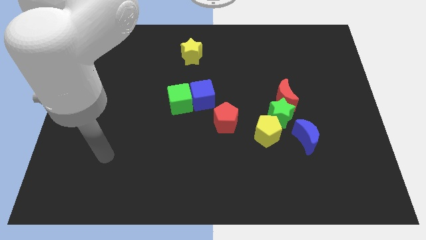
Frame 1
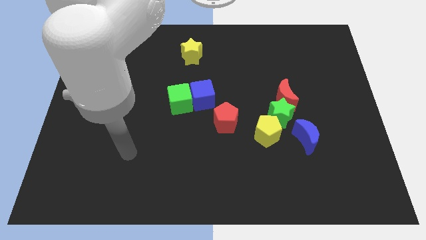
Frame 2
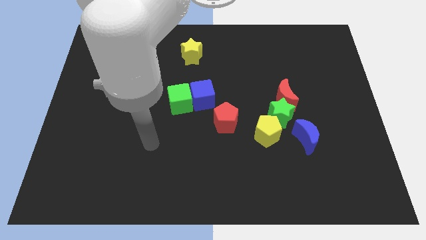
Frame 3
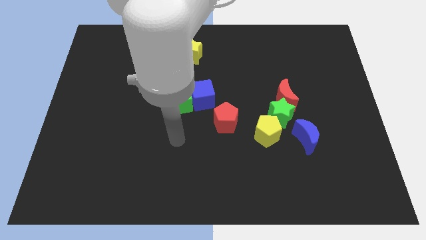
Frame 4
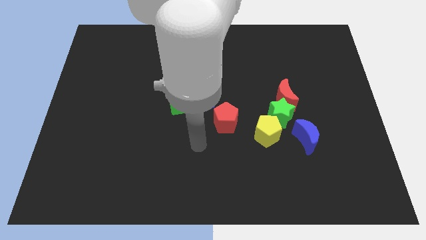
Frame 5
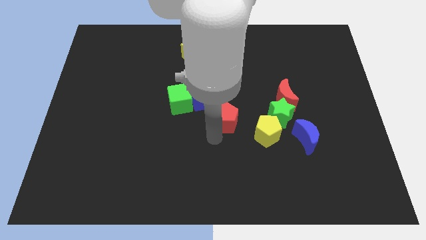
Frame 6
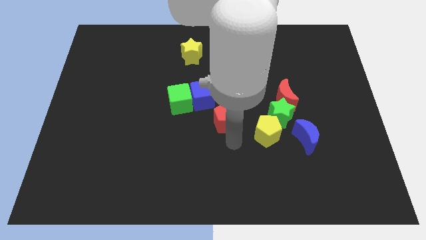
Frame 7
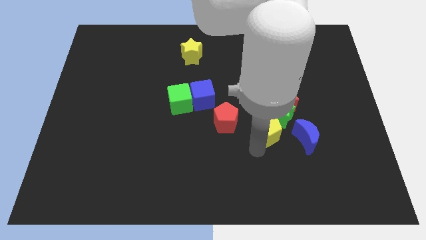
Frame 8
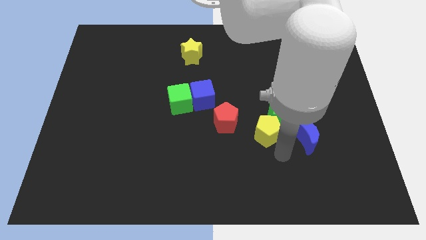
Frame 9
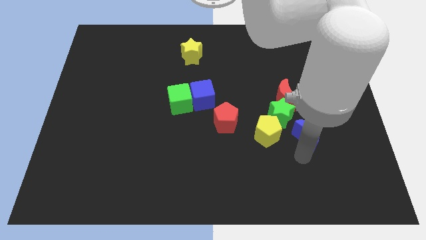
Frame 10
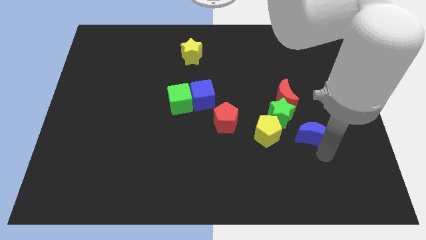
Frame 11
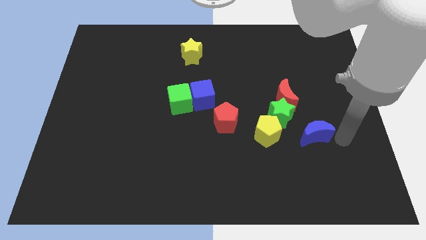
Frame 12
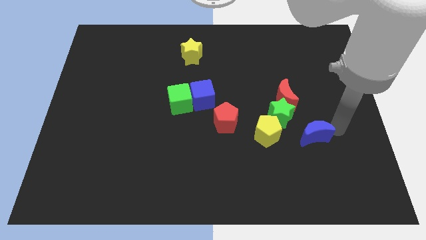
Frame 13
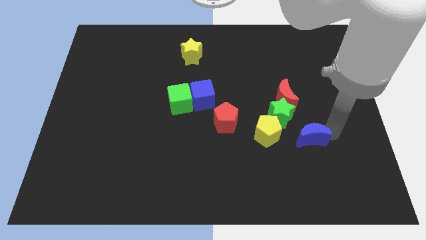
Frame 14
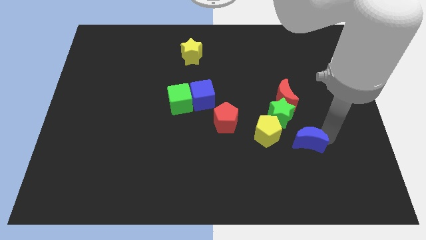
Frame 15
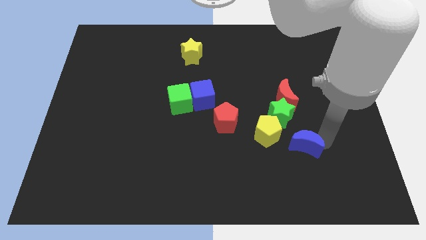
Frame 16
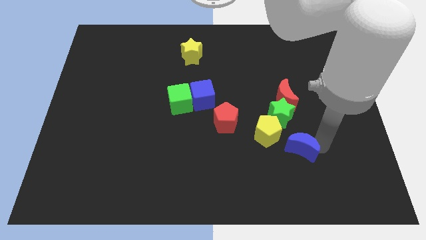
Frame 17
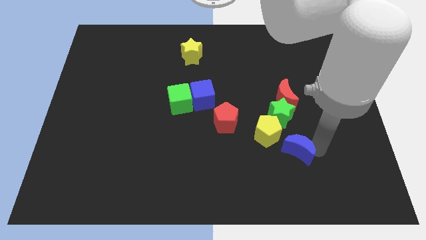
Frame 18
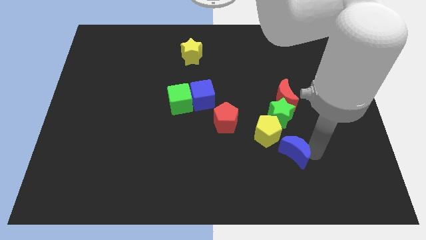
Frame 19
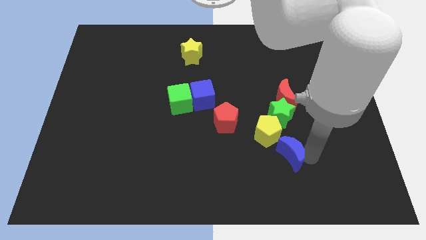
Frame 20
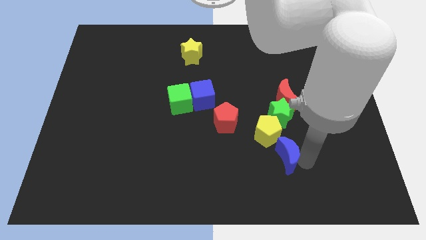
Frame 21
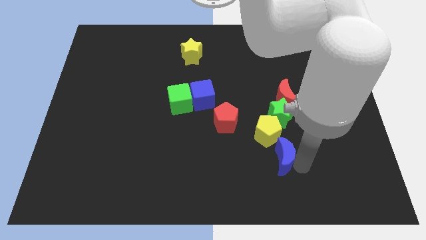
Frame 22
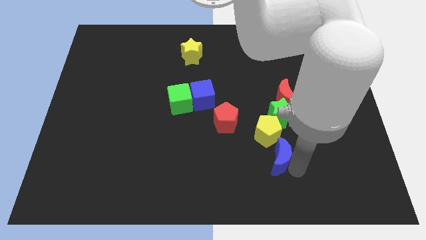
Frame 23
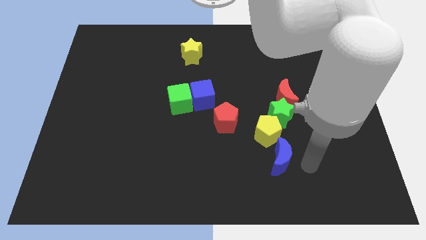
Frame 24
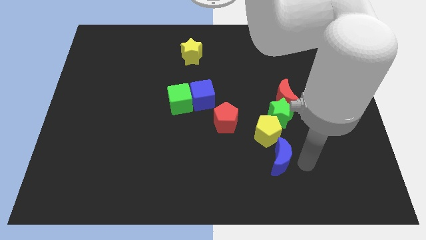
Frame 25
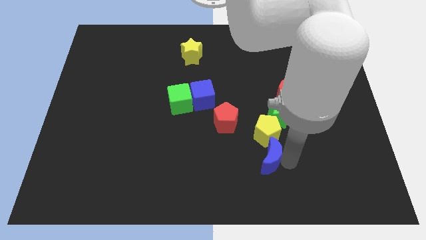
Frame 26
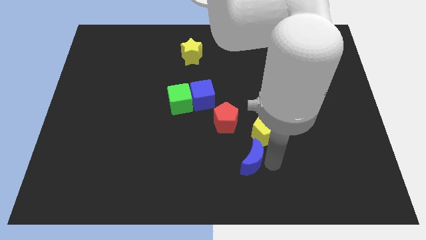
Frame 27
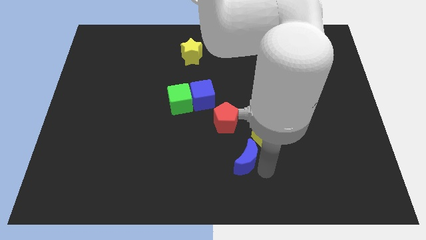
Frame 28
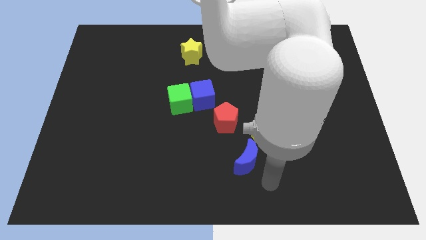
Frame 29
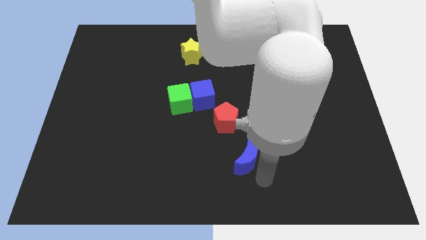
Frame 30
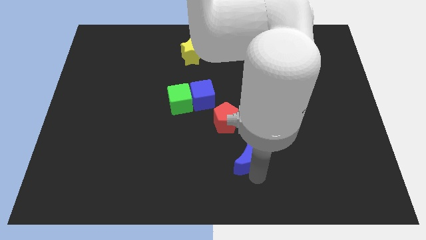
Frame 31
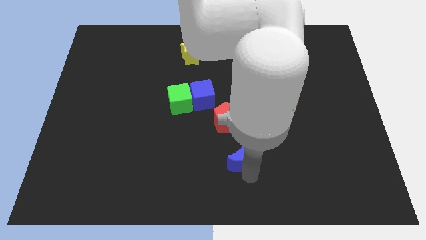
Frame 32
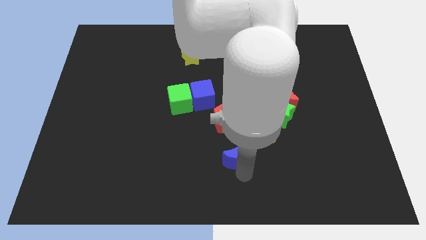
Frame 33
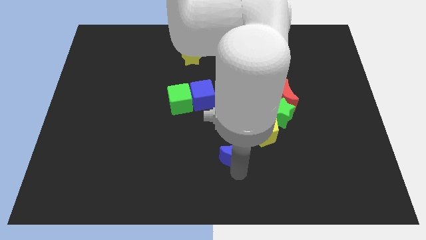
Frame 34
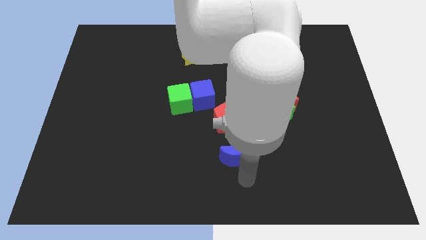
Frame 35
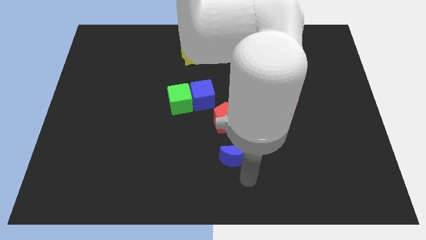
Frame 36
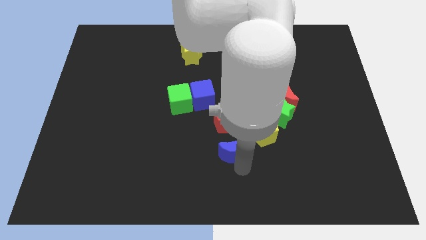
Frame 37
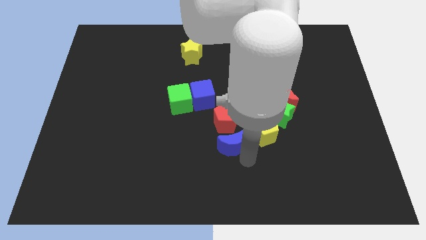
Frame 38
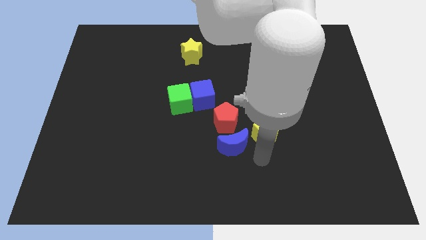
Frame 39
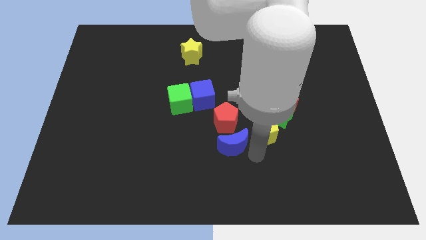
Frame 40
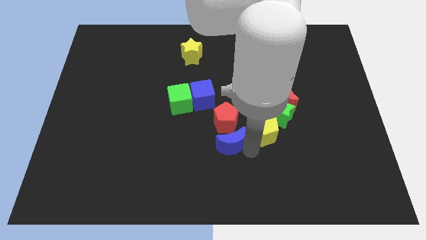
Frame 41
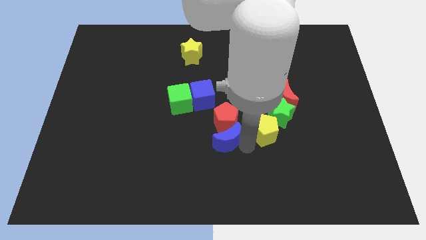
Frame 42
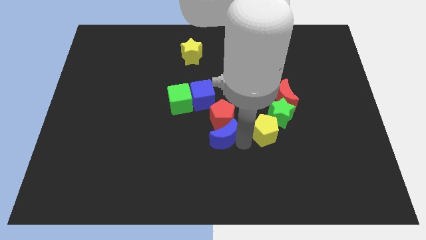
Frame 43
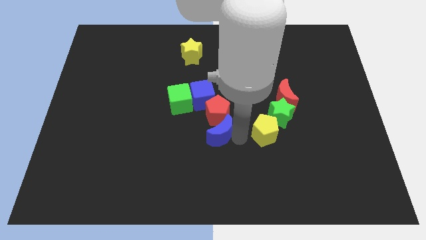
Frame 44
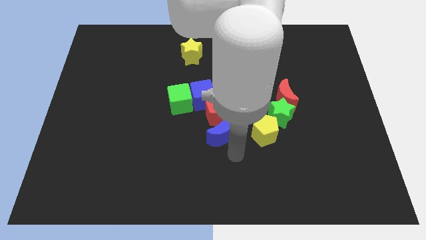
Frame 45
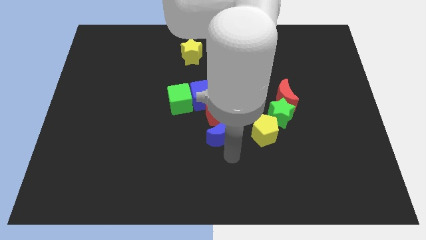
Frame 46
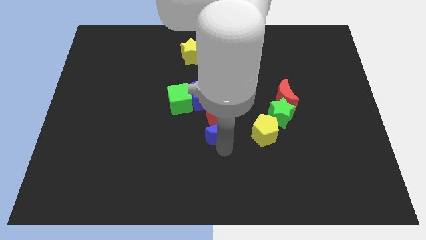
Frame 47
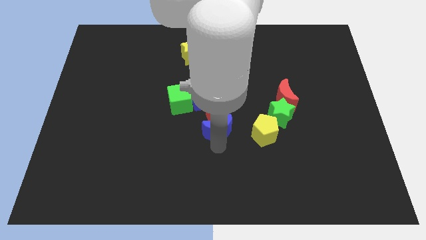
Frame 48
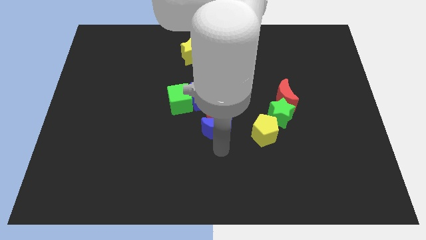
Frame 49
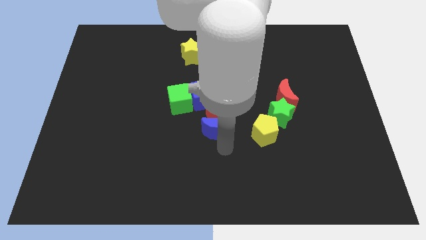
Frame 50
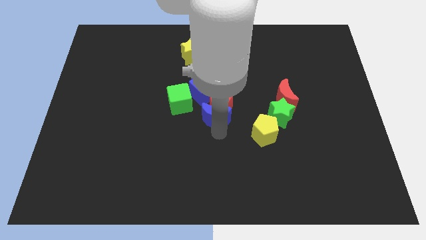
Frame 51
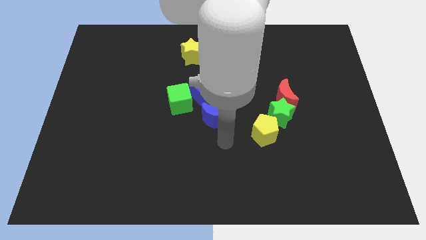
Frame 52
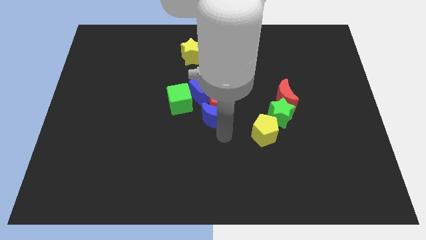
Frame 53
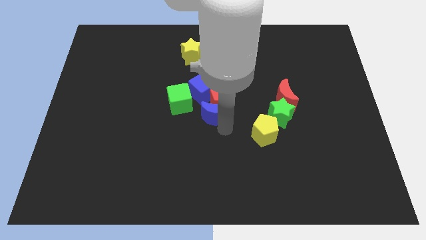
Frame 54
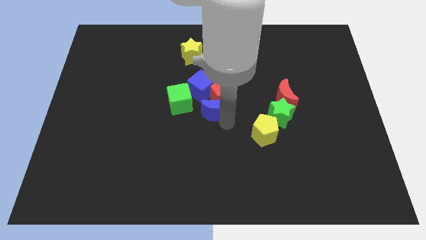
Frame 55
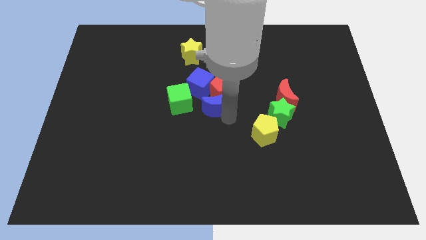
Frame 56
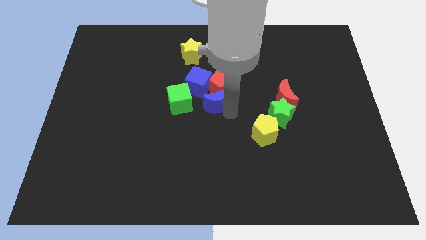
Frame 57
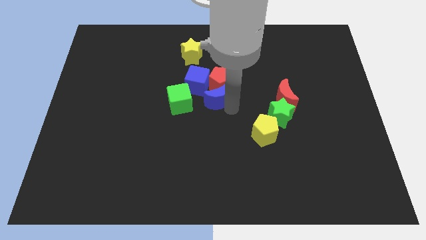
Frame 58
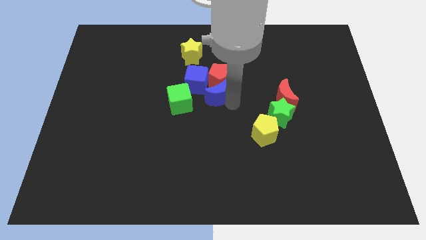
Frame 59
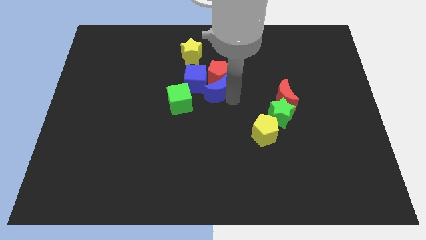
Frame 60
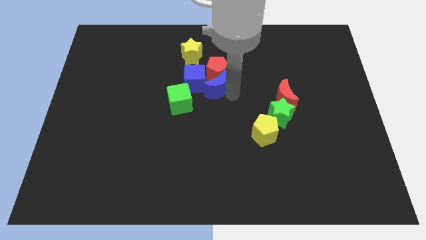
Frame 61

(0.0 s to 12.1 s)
move the blue moon close to the blue cube
